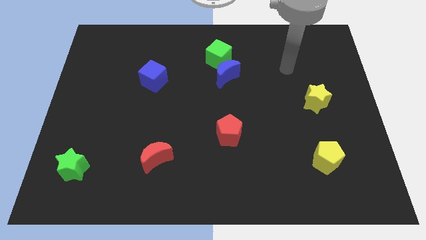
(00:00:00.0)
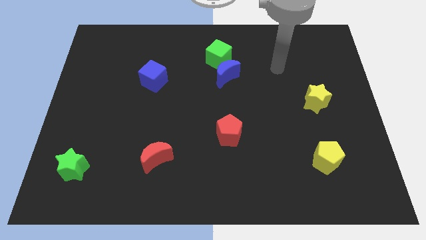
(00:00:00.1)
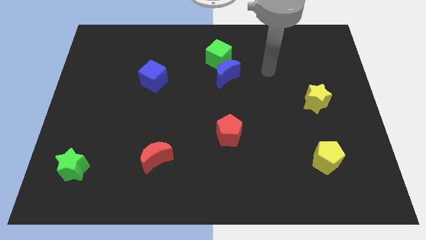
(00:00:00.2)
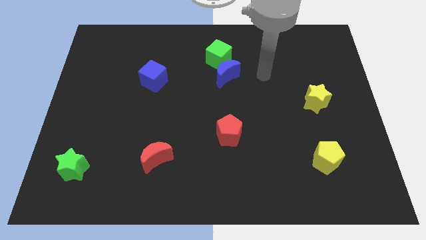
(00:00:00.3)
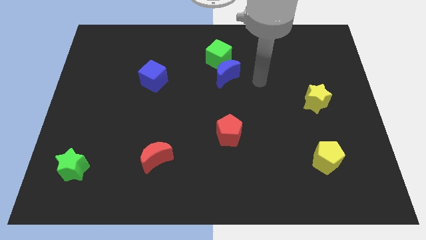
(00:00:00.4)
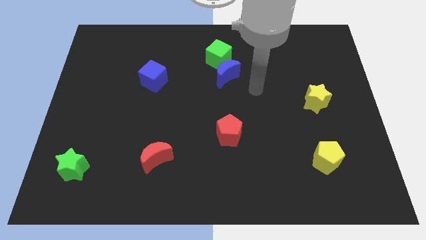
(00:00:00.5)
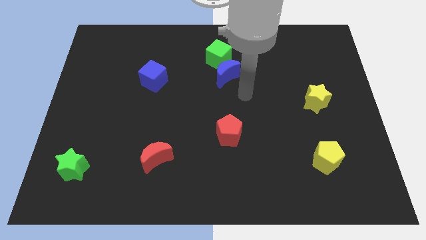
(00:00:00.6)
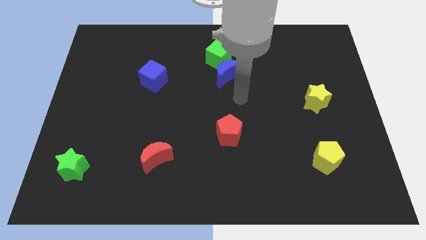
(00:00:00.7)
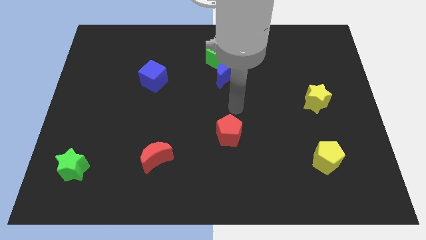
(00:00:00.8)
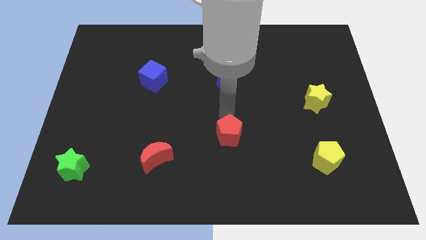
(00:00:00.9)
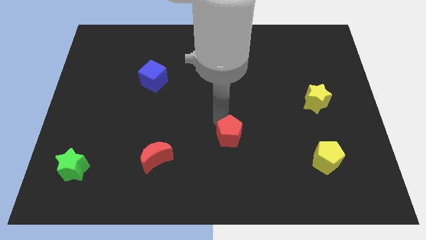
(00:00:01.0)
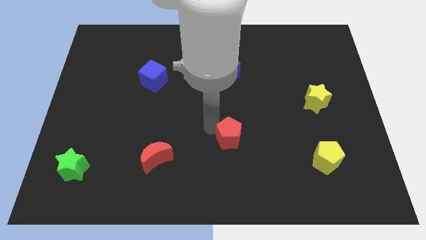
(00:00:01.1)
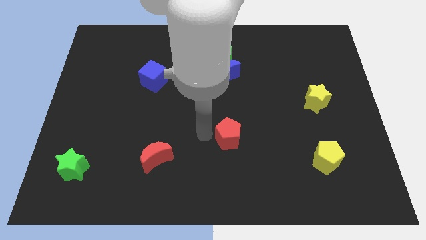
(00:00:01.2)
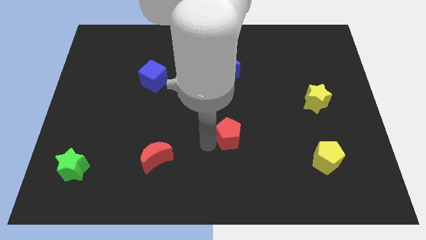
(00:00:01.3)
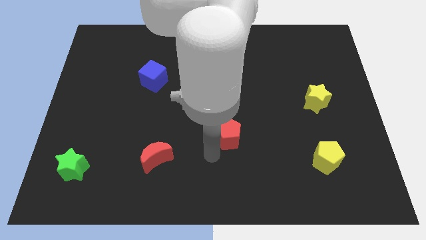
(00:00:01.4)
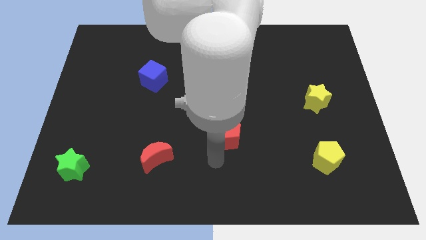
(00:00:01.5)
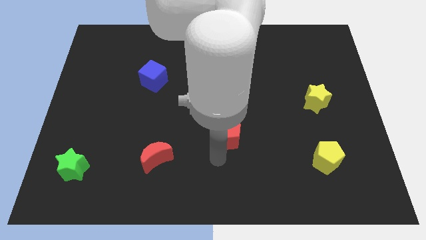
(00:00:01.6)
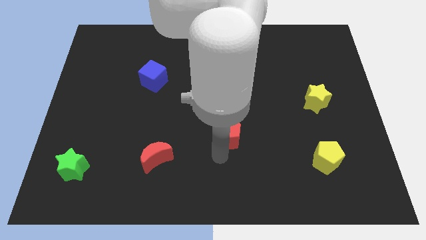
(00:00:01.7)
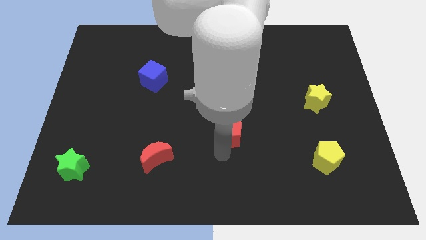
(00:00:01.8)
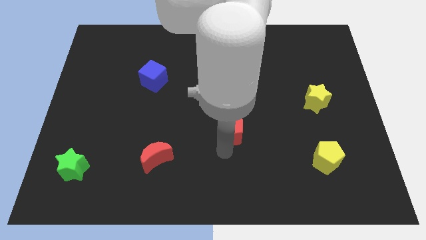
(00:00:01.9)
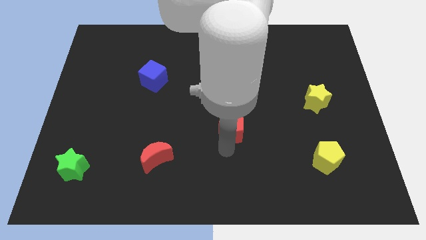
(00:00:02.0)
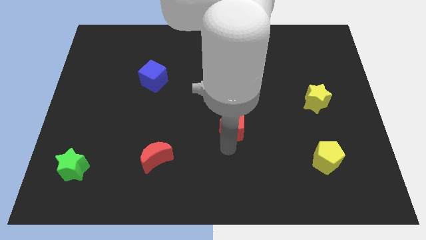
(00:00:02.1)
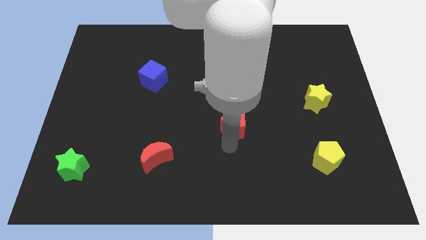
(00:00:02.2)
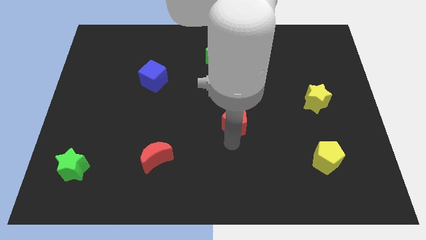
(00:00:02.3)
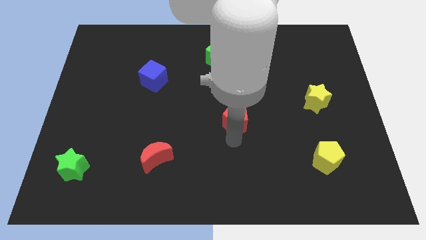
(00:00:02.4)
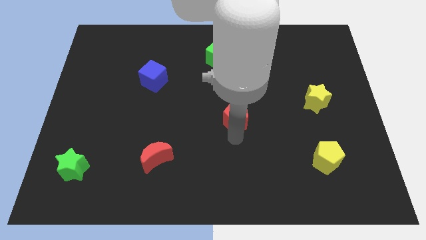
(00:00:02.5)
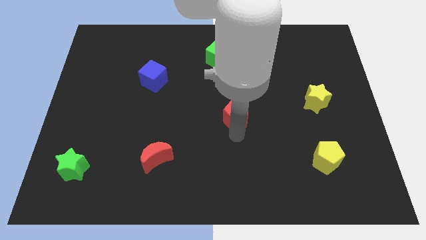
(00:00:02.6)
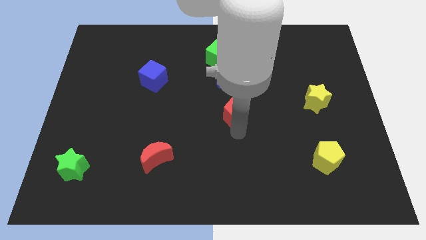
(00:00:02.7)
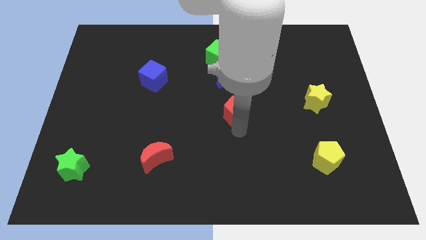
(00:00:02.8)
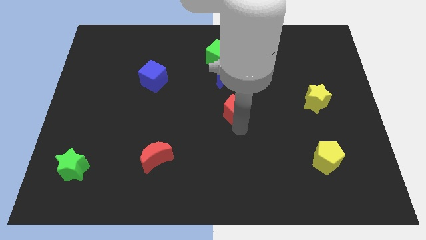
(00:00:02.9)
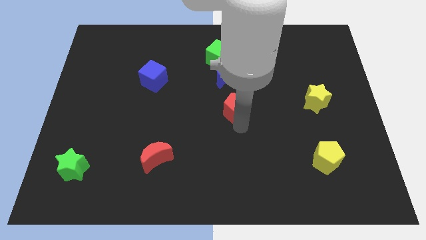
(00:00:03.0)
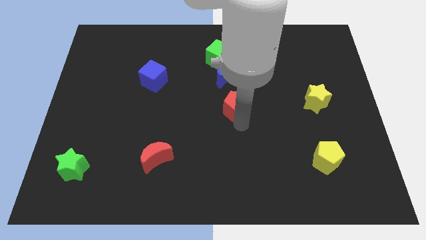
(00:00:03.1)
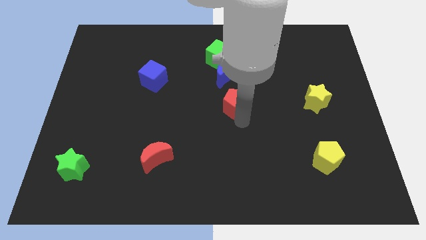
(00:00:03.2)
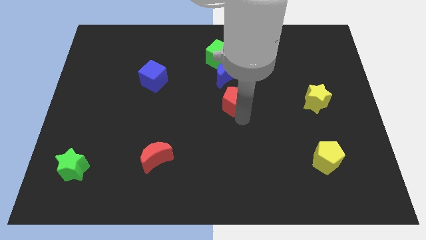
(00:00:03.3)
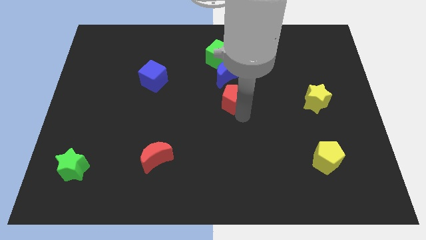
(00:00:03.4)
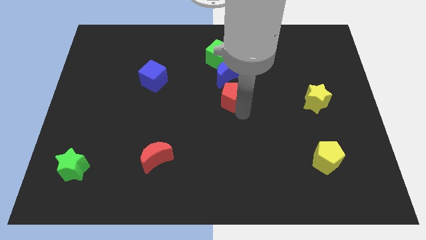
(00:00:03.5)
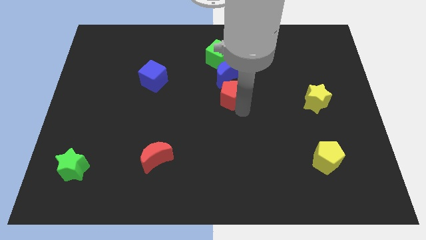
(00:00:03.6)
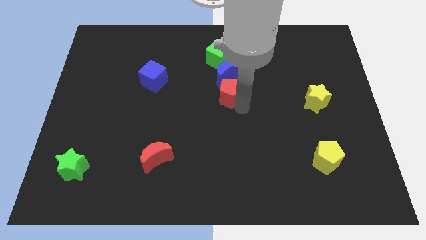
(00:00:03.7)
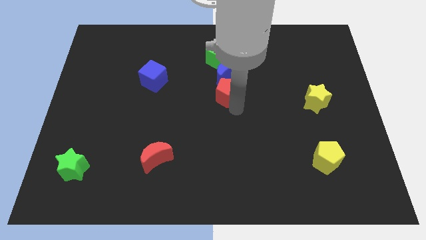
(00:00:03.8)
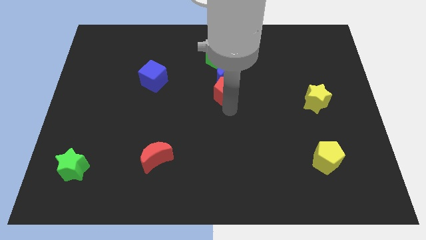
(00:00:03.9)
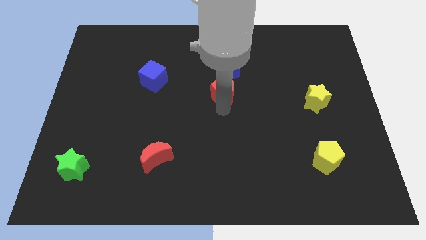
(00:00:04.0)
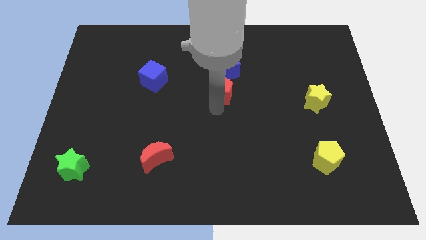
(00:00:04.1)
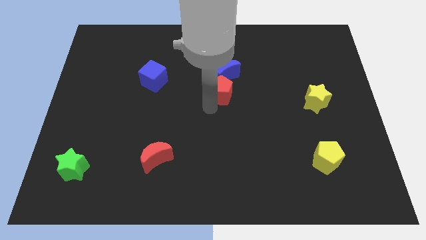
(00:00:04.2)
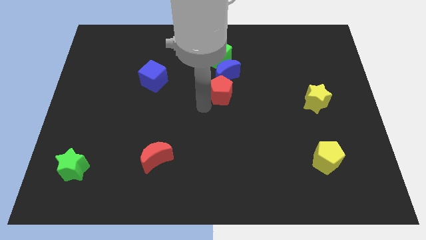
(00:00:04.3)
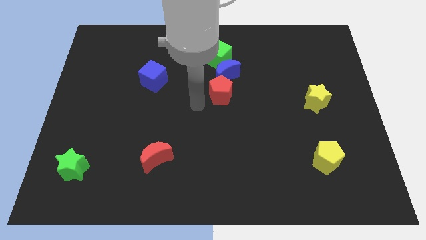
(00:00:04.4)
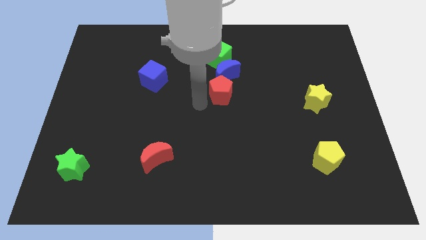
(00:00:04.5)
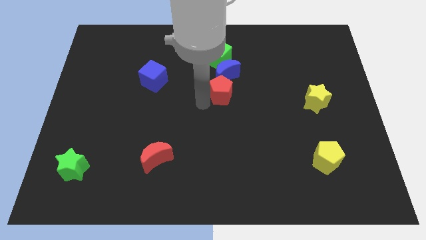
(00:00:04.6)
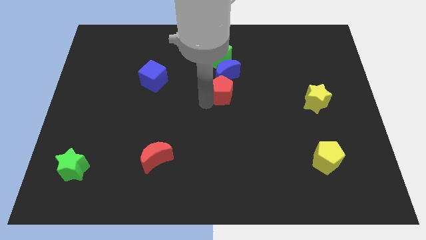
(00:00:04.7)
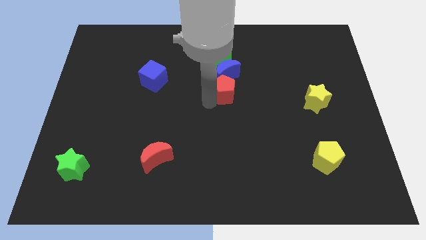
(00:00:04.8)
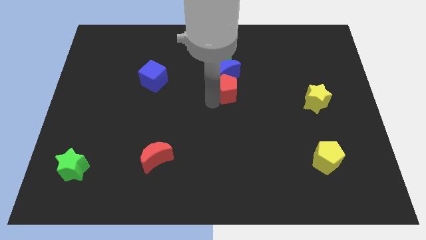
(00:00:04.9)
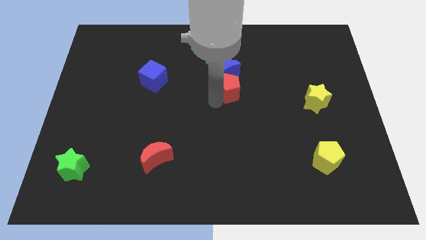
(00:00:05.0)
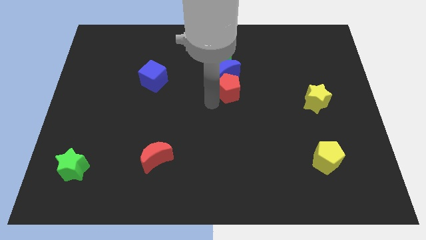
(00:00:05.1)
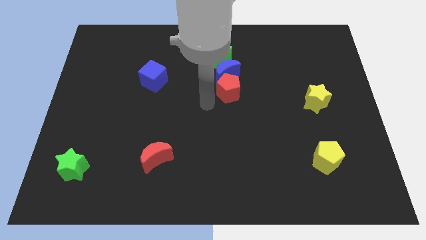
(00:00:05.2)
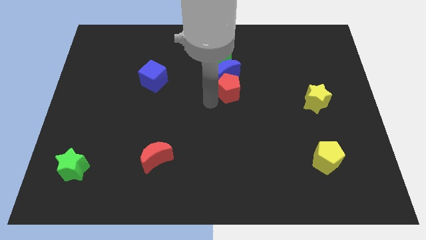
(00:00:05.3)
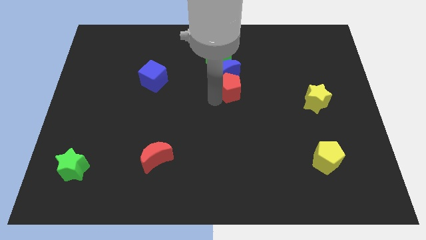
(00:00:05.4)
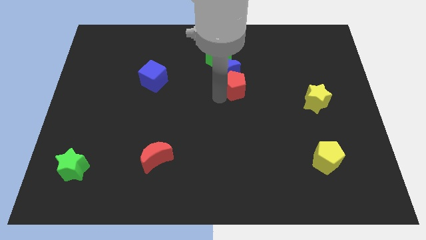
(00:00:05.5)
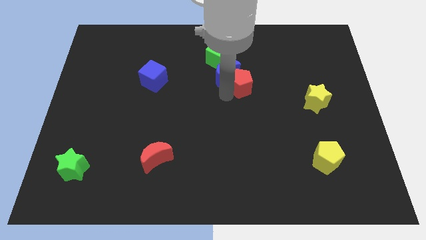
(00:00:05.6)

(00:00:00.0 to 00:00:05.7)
put the red pentagon diagonally down and to the right of the green cube

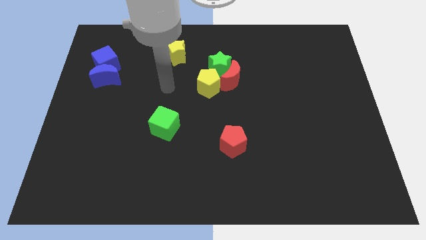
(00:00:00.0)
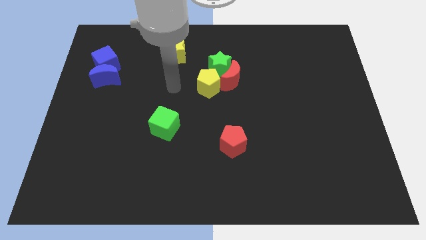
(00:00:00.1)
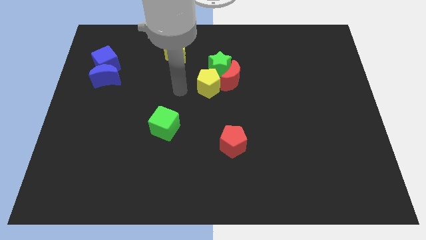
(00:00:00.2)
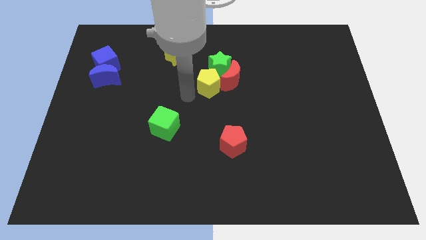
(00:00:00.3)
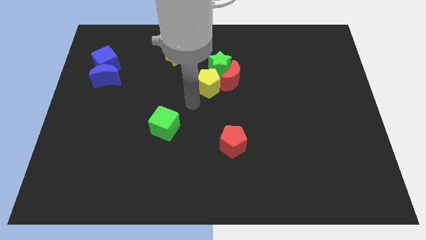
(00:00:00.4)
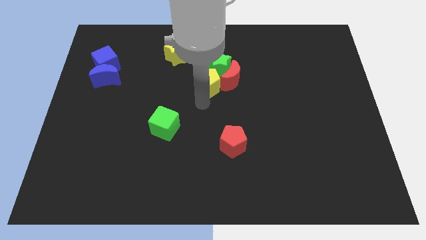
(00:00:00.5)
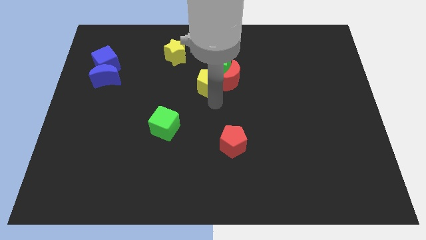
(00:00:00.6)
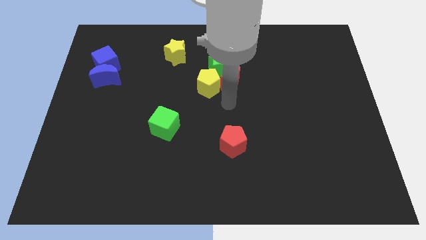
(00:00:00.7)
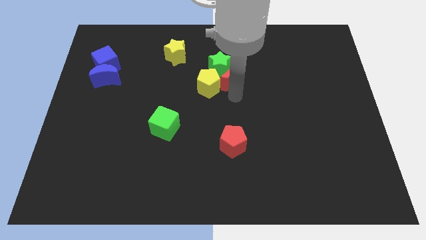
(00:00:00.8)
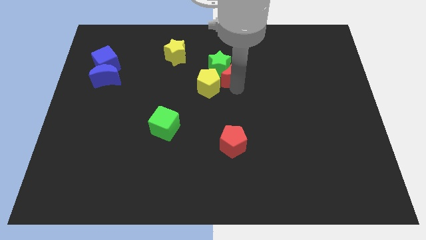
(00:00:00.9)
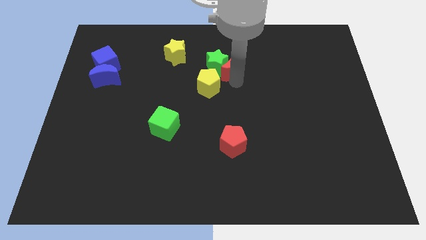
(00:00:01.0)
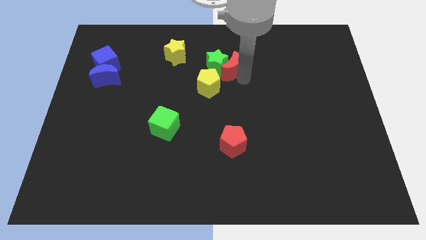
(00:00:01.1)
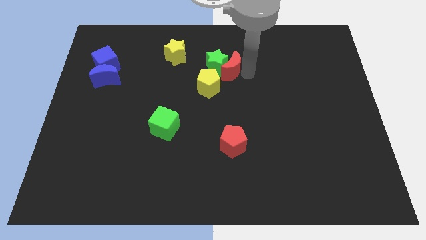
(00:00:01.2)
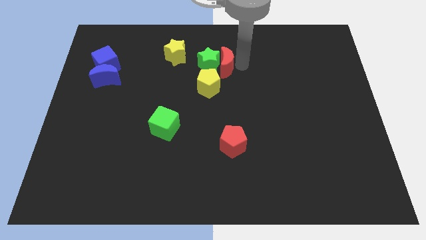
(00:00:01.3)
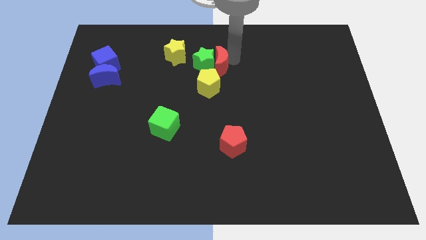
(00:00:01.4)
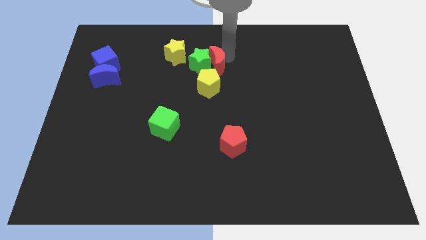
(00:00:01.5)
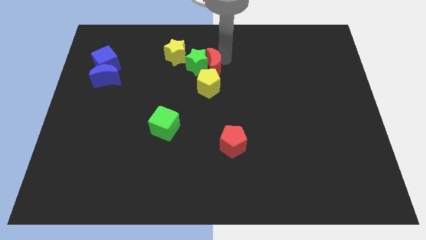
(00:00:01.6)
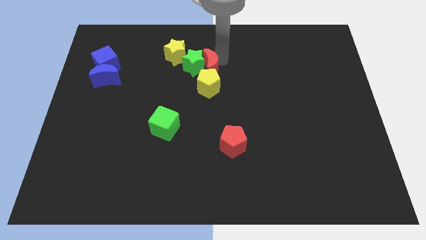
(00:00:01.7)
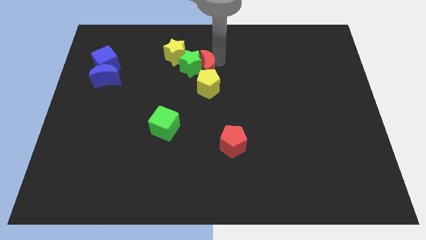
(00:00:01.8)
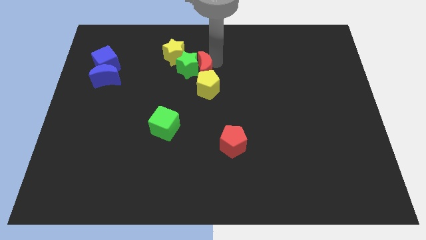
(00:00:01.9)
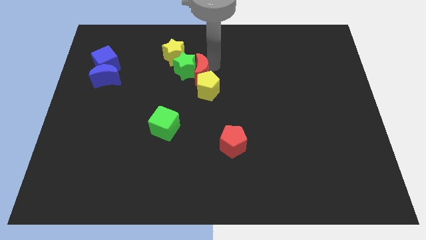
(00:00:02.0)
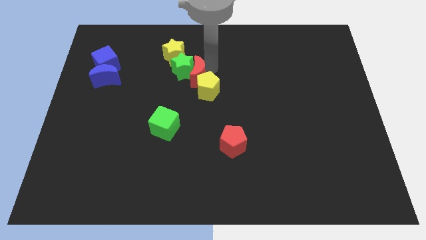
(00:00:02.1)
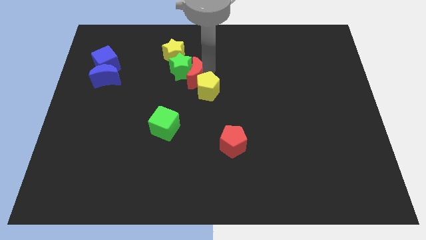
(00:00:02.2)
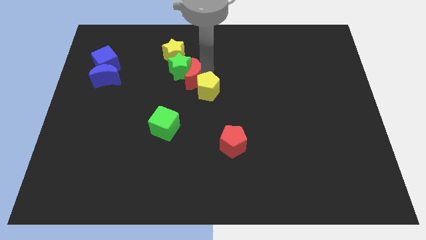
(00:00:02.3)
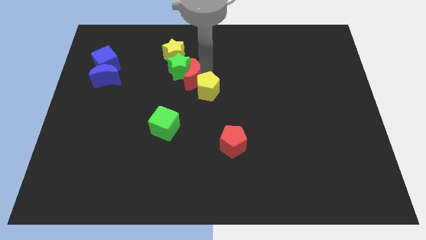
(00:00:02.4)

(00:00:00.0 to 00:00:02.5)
slide the green star diagonally down and to the left of the yellow star
